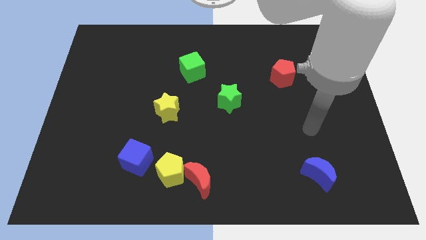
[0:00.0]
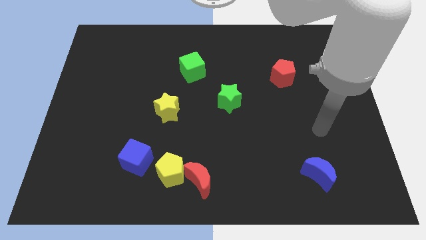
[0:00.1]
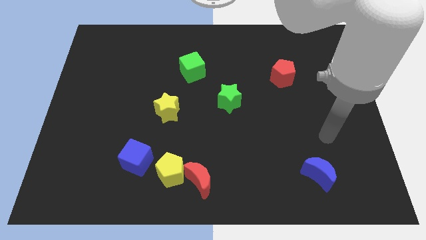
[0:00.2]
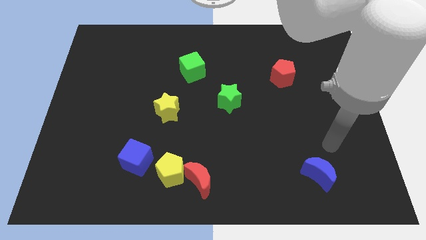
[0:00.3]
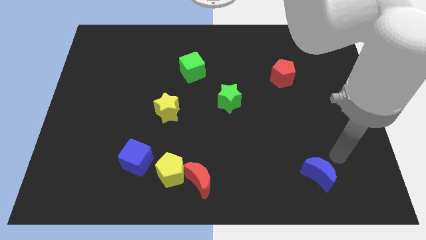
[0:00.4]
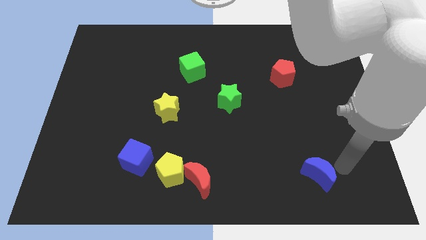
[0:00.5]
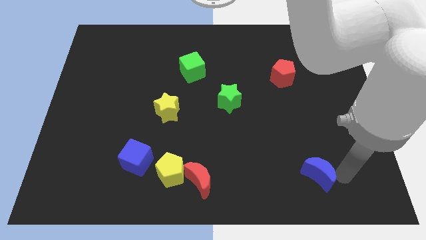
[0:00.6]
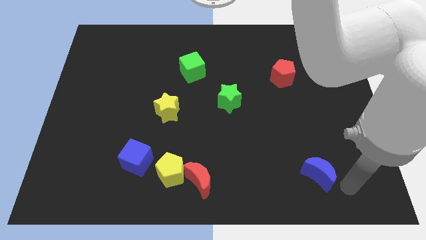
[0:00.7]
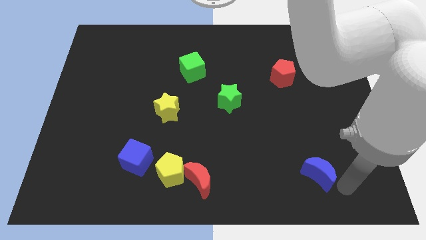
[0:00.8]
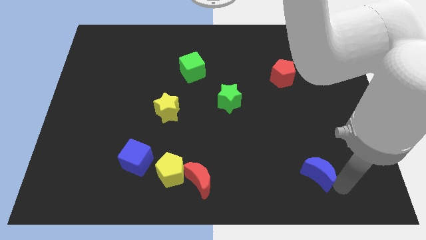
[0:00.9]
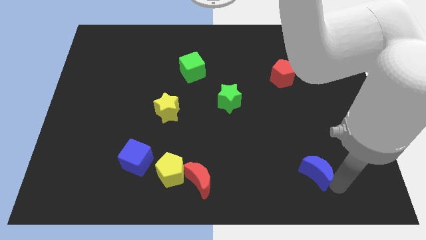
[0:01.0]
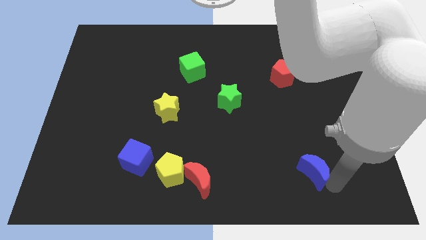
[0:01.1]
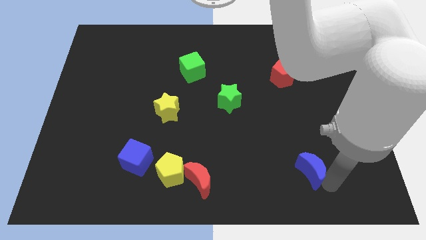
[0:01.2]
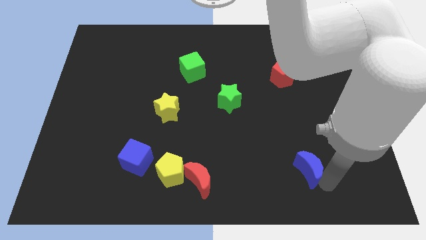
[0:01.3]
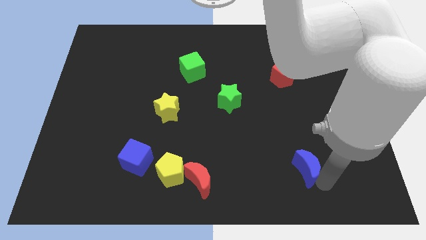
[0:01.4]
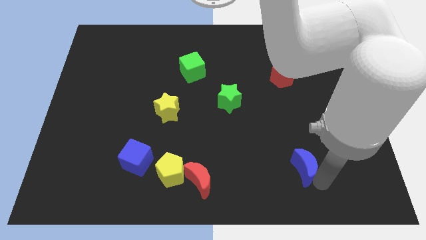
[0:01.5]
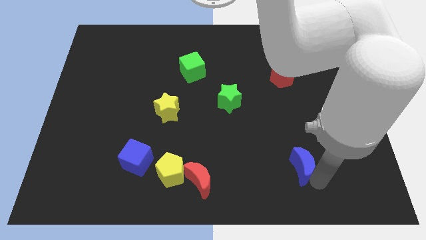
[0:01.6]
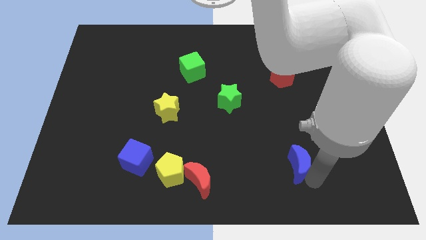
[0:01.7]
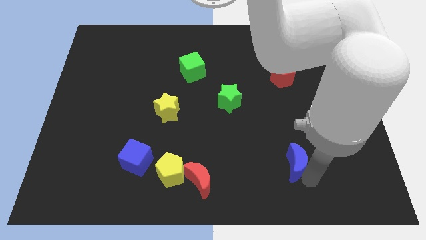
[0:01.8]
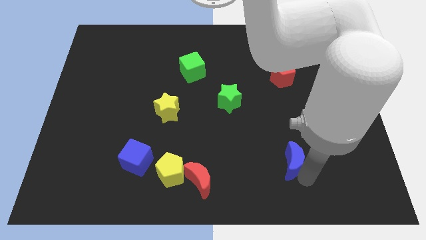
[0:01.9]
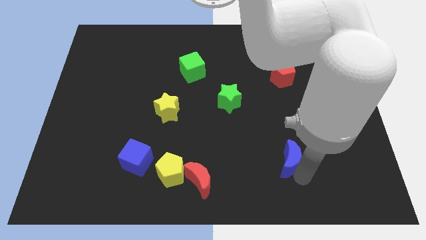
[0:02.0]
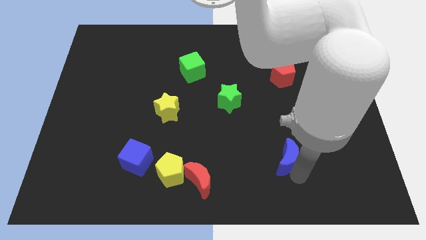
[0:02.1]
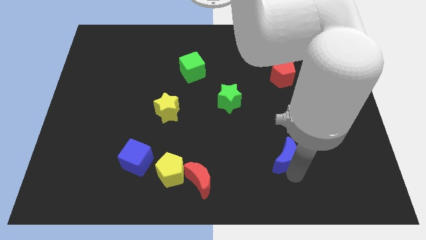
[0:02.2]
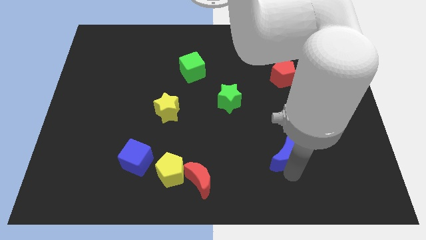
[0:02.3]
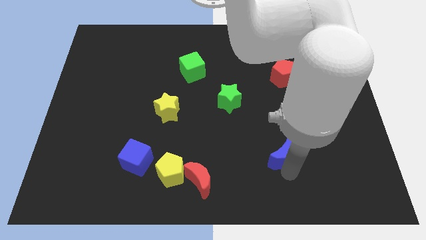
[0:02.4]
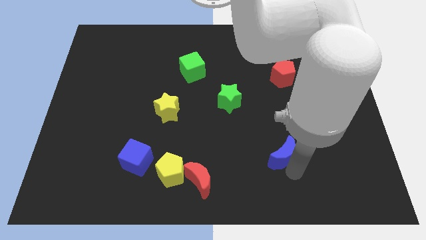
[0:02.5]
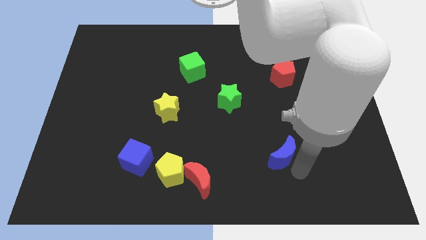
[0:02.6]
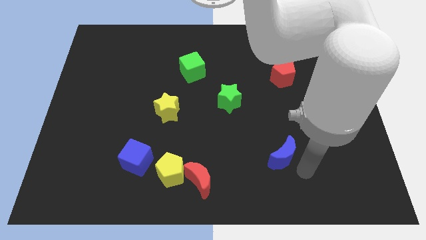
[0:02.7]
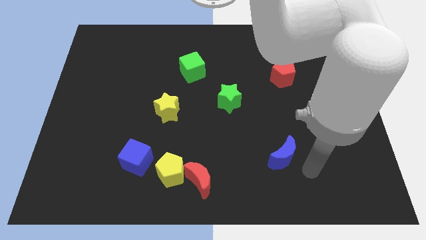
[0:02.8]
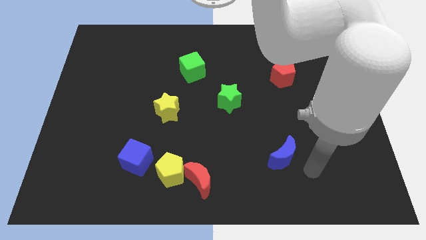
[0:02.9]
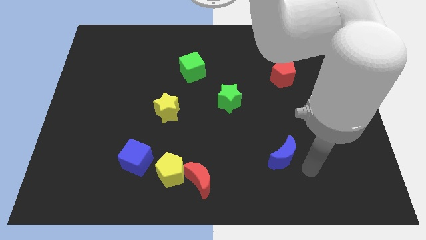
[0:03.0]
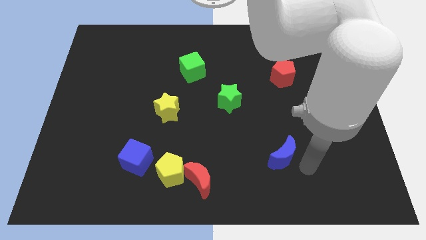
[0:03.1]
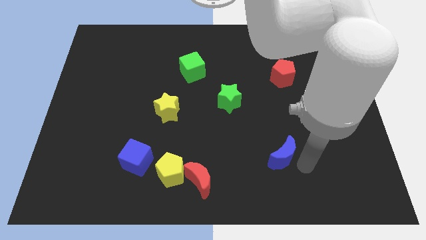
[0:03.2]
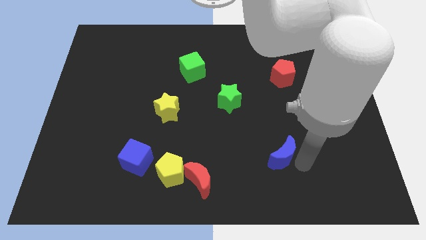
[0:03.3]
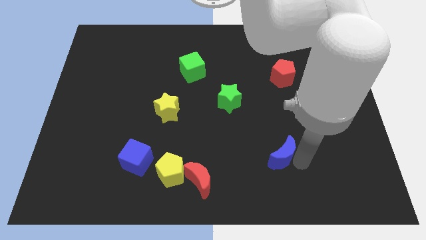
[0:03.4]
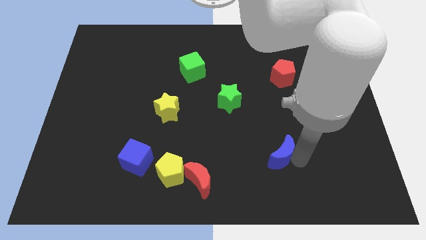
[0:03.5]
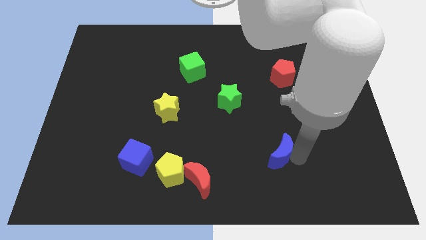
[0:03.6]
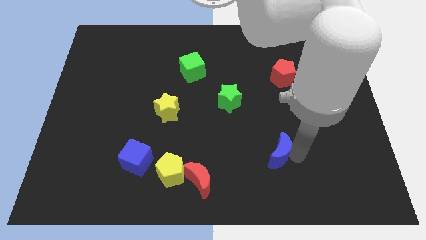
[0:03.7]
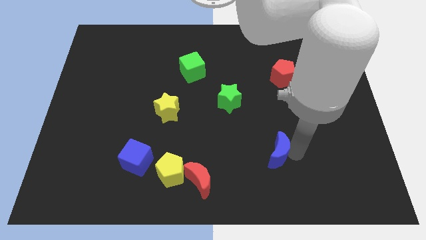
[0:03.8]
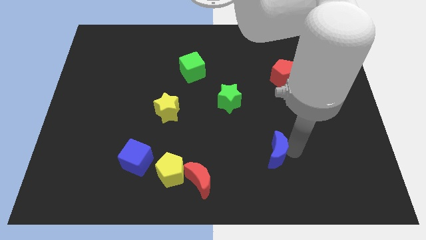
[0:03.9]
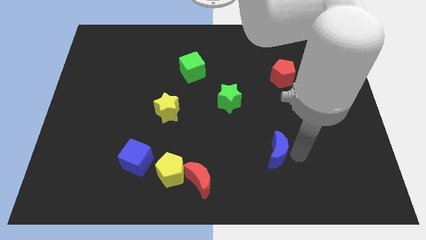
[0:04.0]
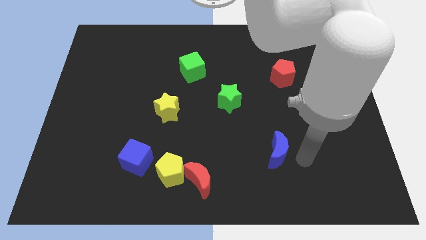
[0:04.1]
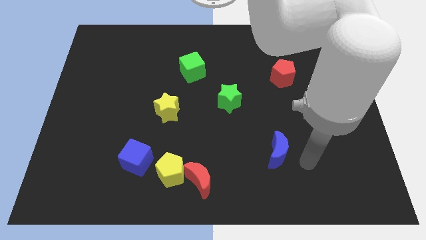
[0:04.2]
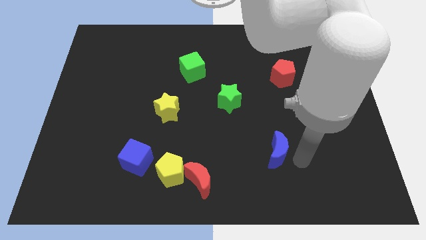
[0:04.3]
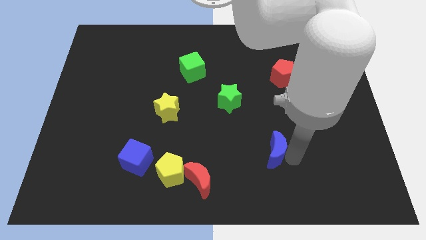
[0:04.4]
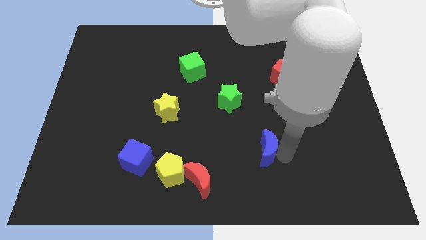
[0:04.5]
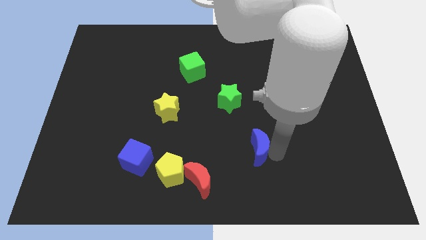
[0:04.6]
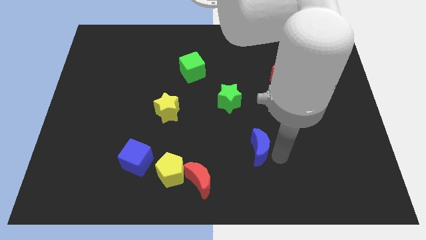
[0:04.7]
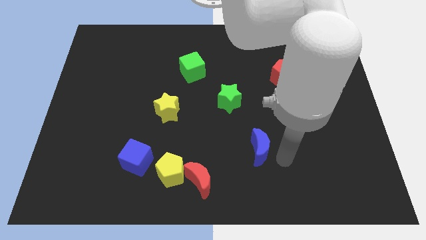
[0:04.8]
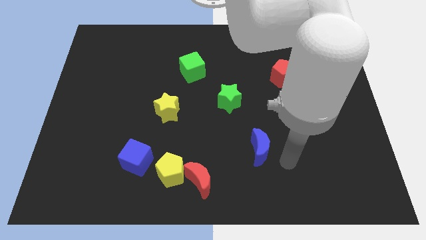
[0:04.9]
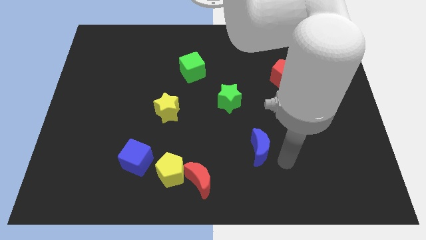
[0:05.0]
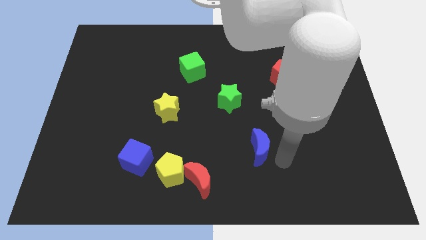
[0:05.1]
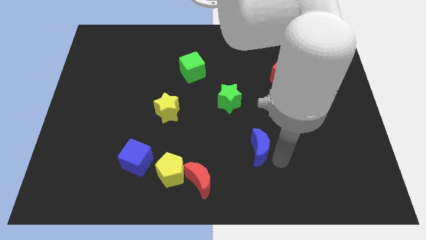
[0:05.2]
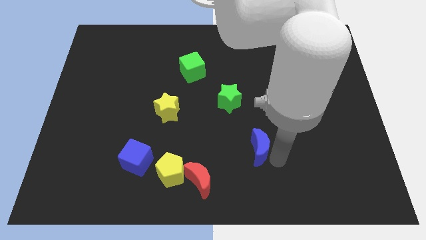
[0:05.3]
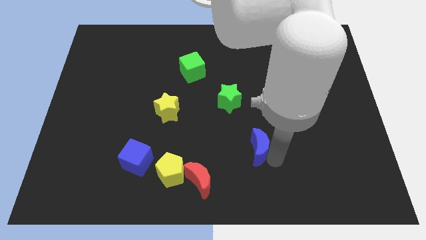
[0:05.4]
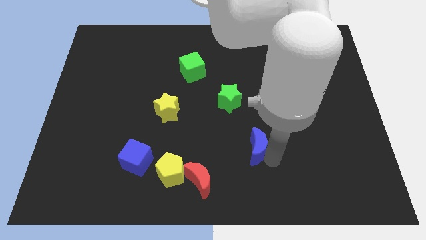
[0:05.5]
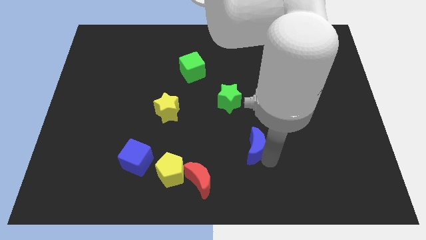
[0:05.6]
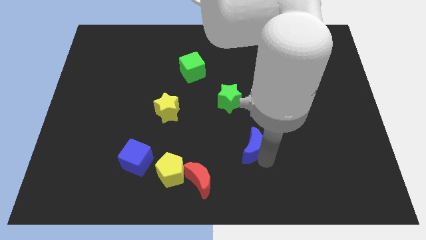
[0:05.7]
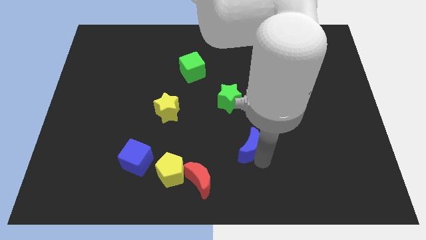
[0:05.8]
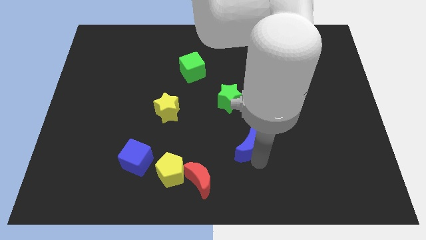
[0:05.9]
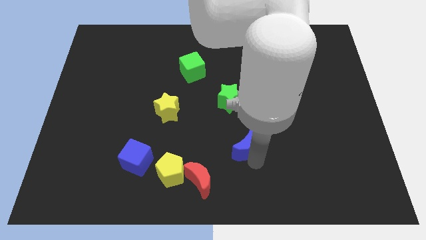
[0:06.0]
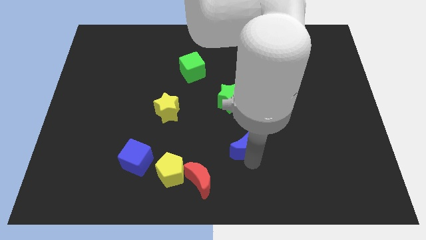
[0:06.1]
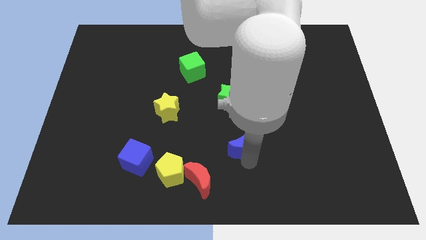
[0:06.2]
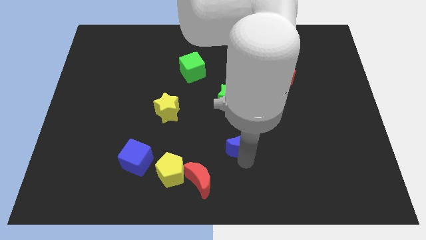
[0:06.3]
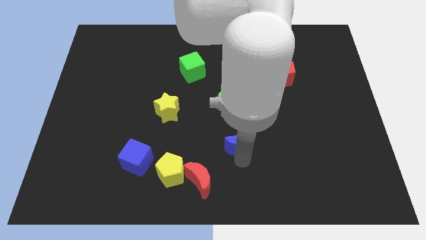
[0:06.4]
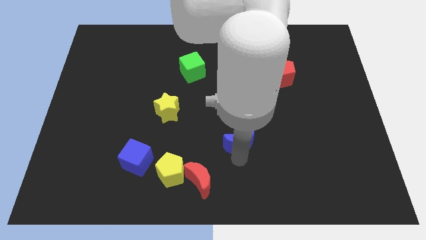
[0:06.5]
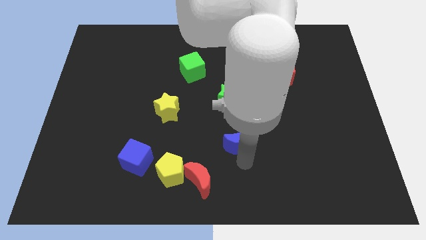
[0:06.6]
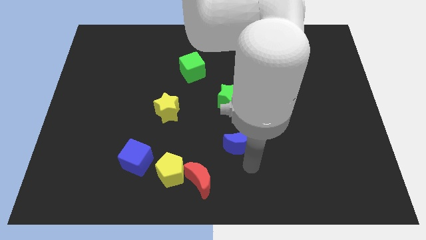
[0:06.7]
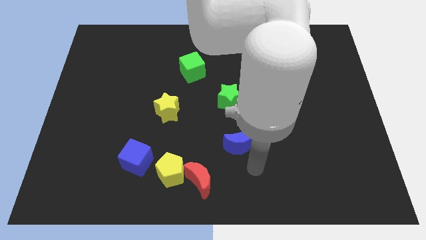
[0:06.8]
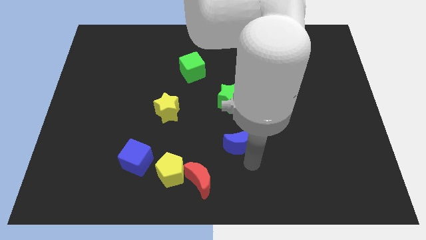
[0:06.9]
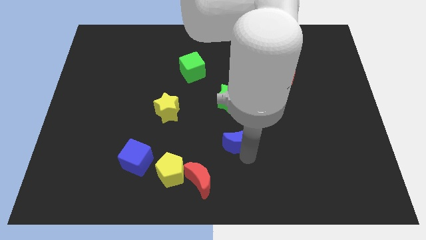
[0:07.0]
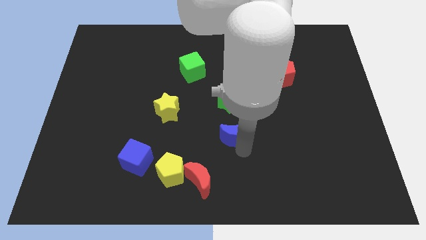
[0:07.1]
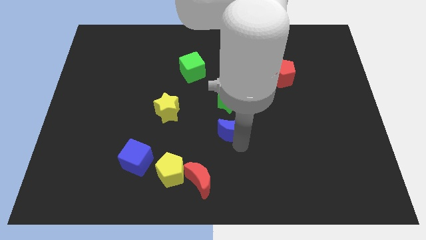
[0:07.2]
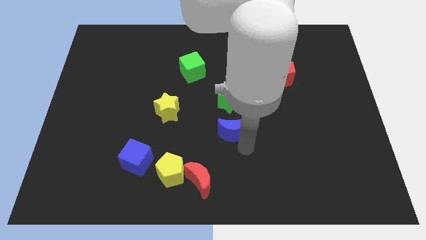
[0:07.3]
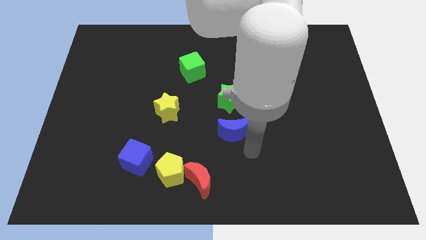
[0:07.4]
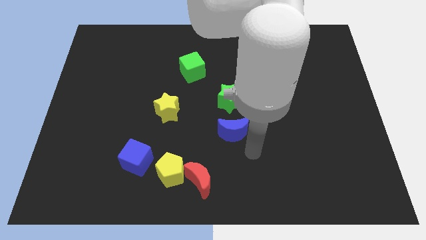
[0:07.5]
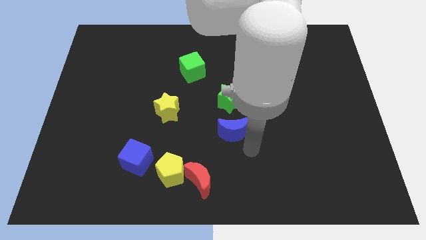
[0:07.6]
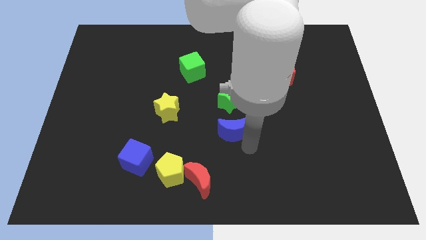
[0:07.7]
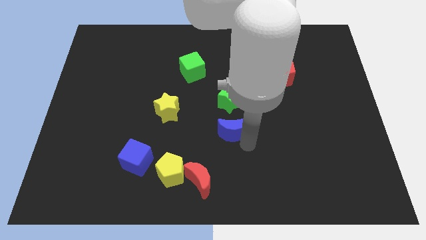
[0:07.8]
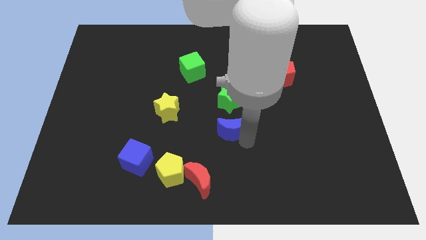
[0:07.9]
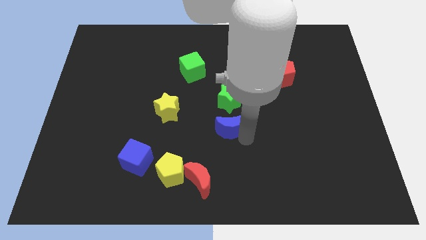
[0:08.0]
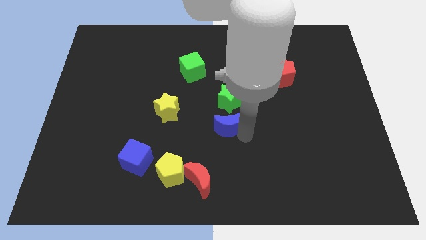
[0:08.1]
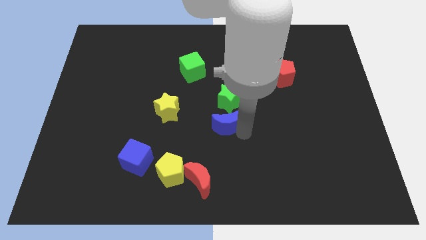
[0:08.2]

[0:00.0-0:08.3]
move the blue moon to the right side of the yellow star
